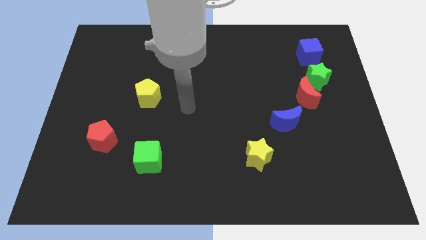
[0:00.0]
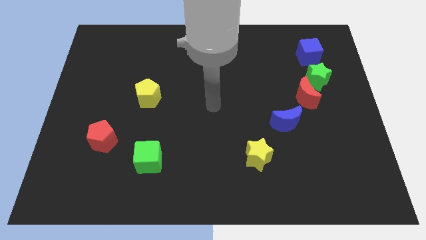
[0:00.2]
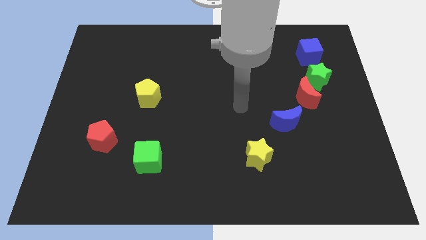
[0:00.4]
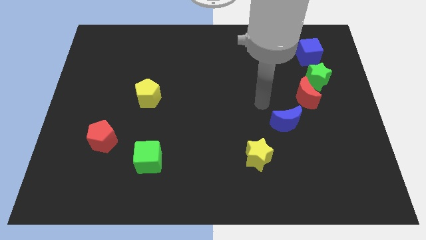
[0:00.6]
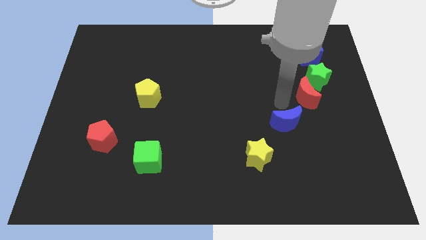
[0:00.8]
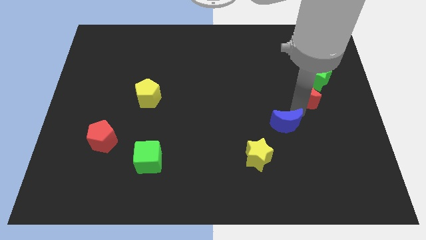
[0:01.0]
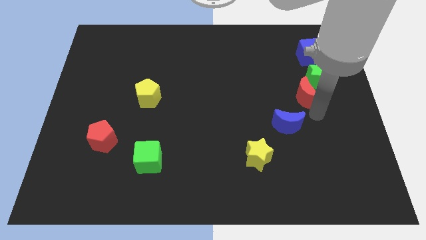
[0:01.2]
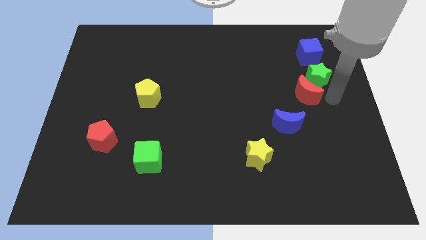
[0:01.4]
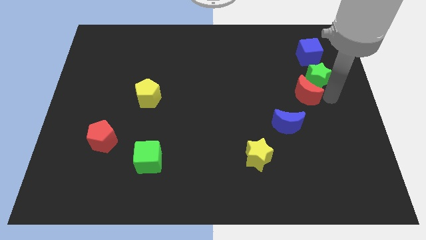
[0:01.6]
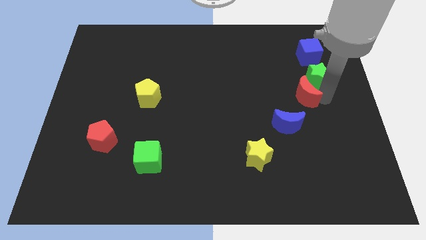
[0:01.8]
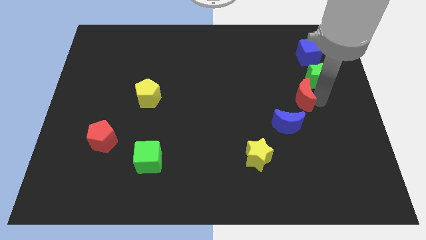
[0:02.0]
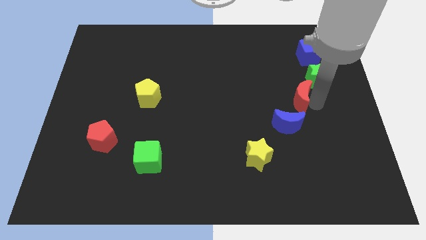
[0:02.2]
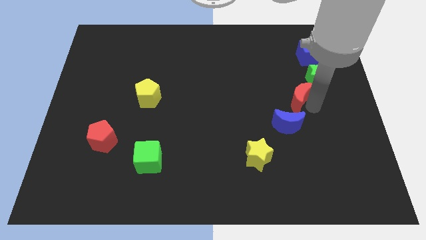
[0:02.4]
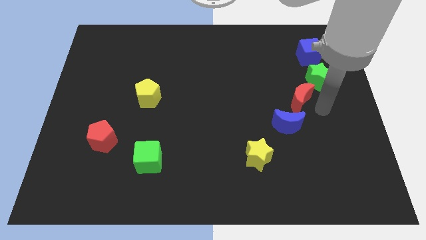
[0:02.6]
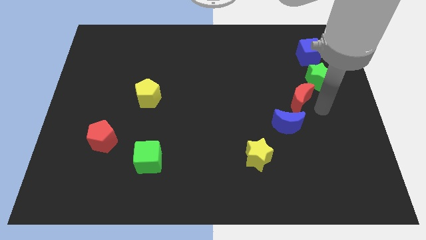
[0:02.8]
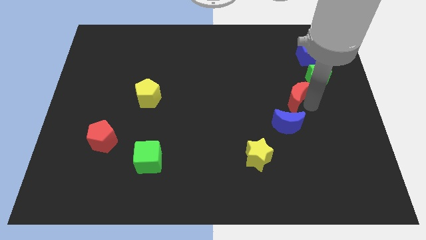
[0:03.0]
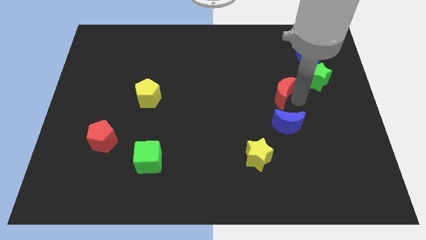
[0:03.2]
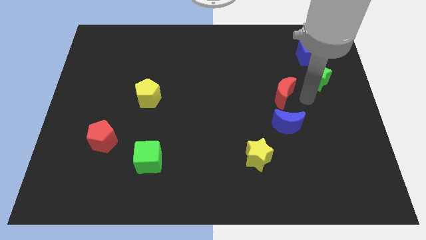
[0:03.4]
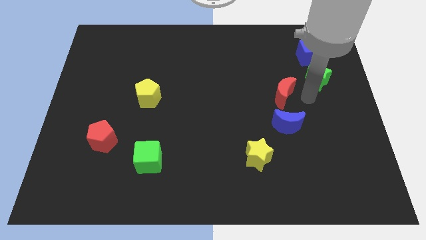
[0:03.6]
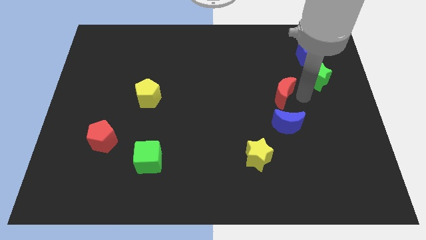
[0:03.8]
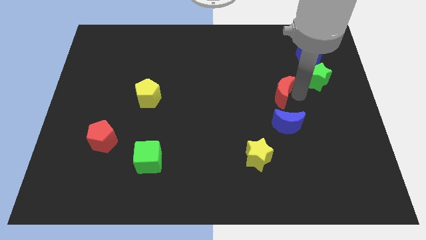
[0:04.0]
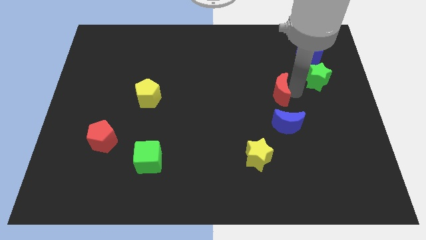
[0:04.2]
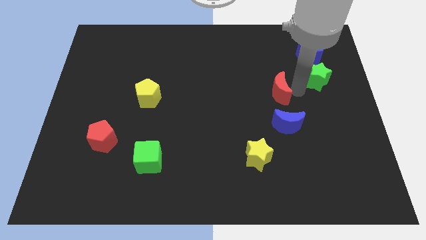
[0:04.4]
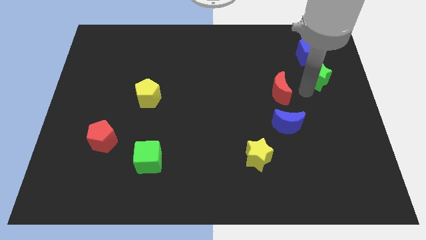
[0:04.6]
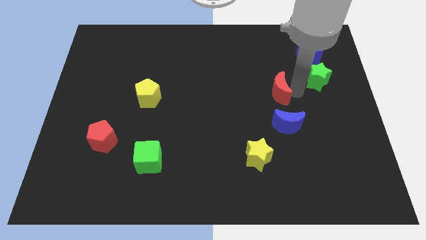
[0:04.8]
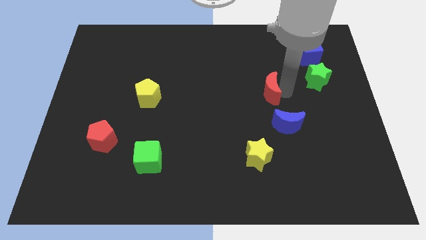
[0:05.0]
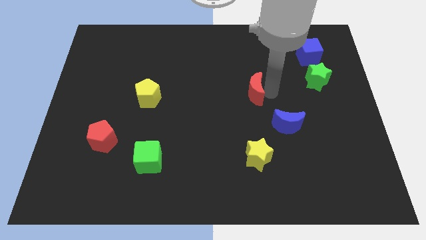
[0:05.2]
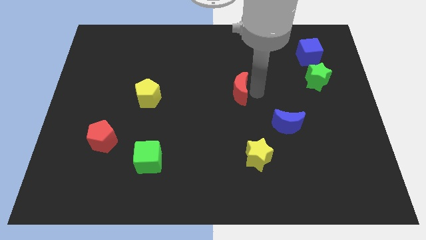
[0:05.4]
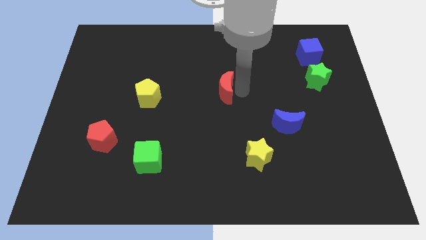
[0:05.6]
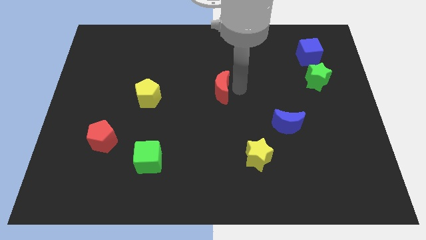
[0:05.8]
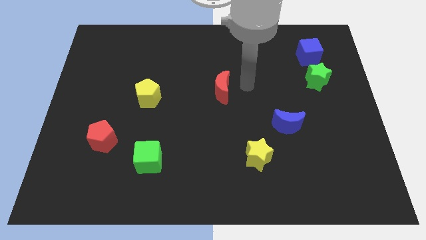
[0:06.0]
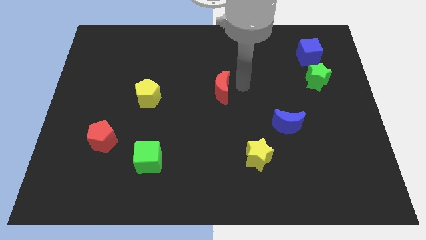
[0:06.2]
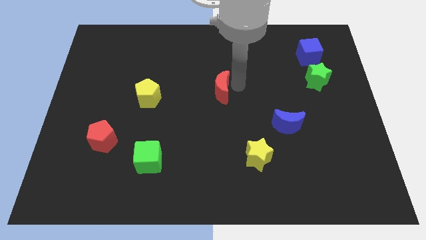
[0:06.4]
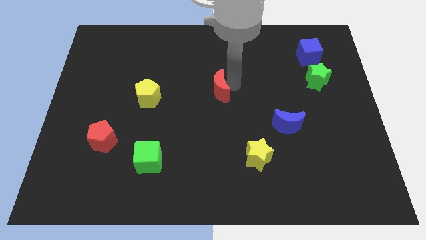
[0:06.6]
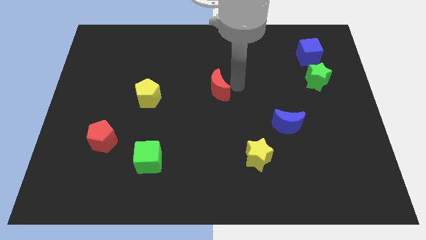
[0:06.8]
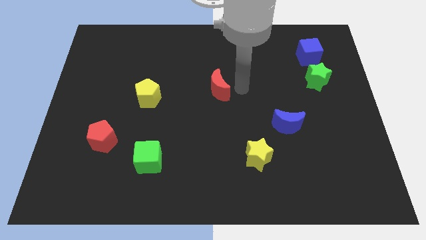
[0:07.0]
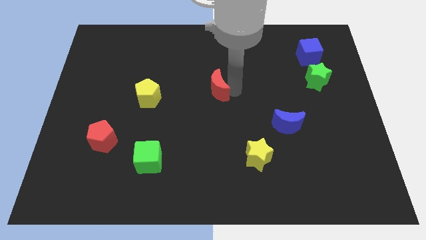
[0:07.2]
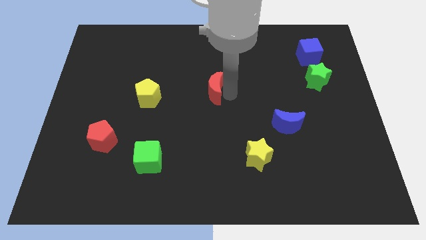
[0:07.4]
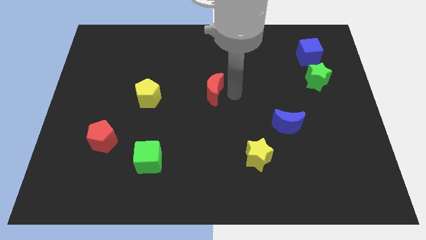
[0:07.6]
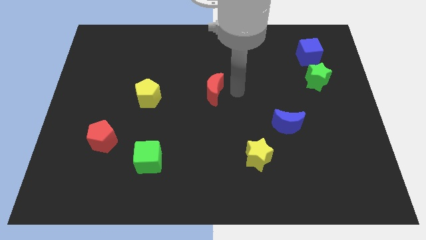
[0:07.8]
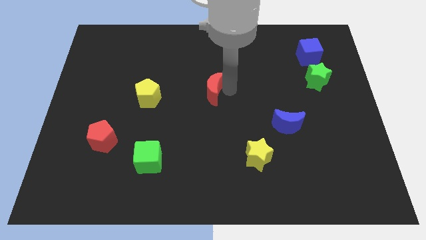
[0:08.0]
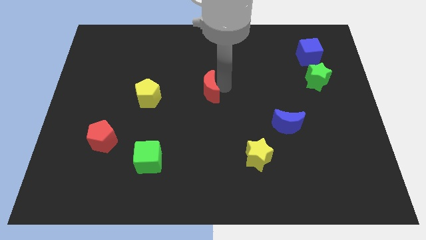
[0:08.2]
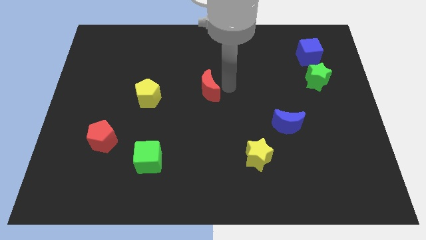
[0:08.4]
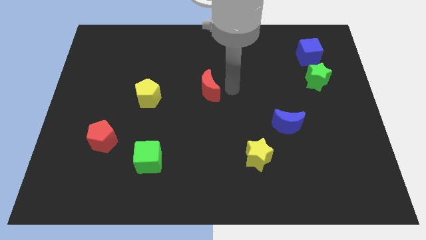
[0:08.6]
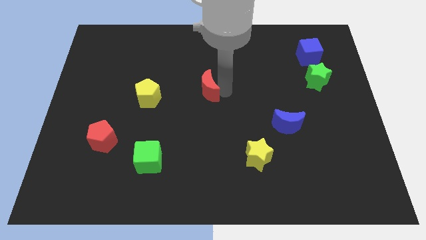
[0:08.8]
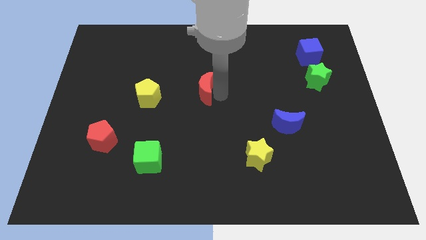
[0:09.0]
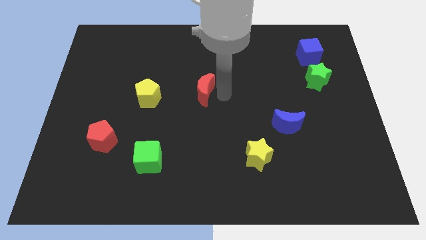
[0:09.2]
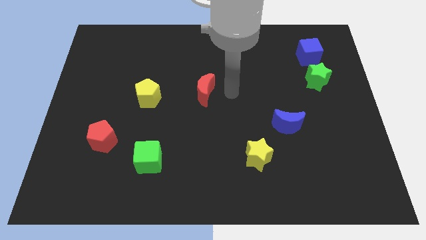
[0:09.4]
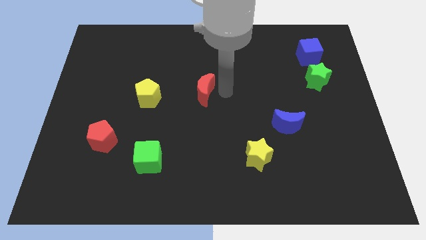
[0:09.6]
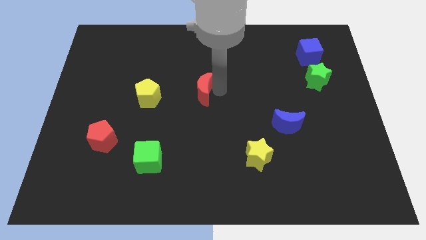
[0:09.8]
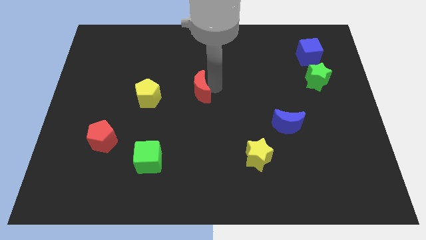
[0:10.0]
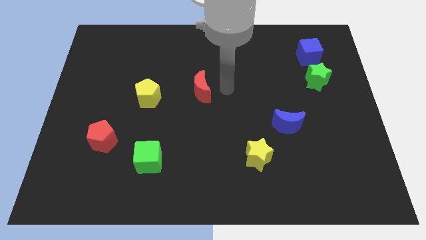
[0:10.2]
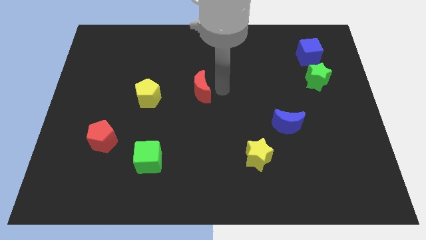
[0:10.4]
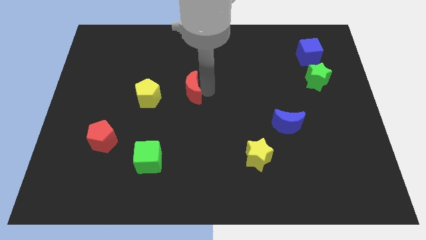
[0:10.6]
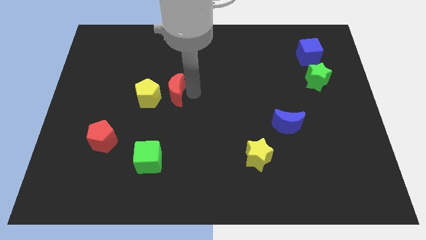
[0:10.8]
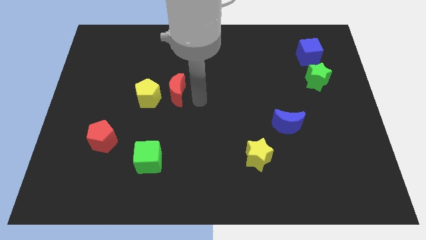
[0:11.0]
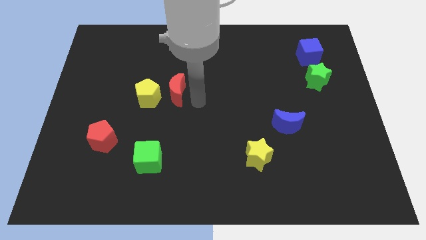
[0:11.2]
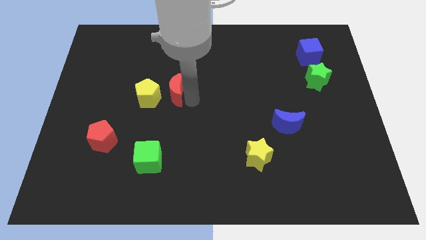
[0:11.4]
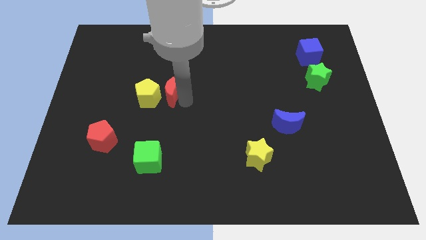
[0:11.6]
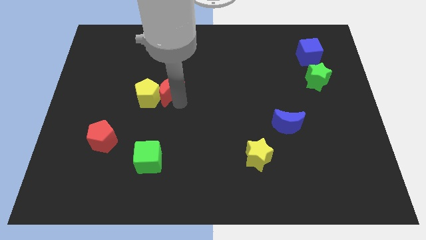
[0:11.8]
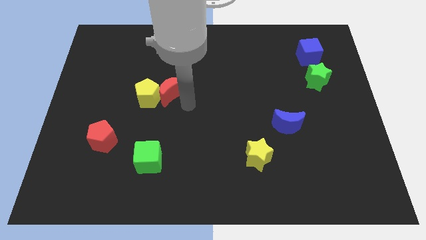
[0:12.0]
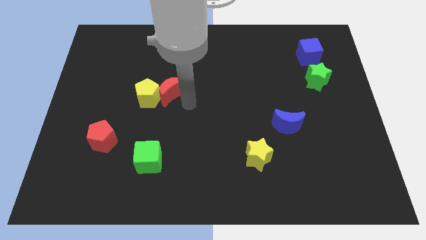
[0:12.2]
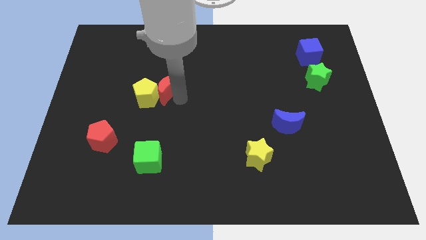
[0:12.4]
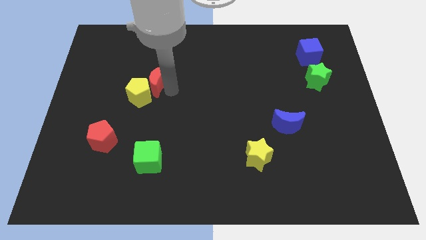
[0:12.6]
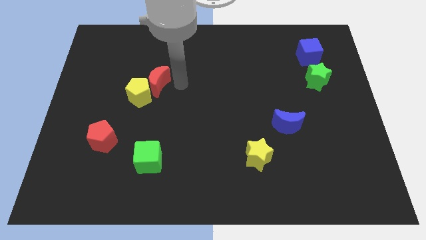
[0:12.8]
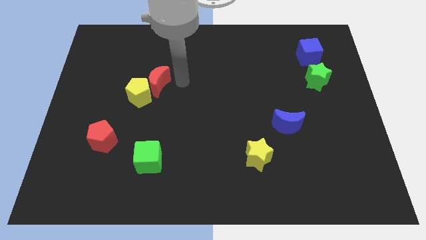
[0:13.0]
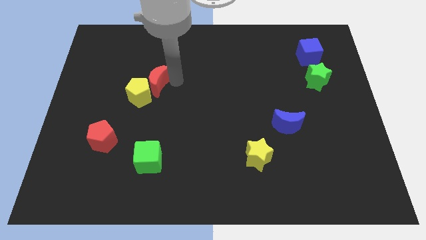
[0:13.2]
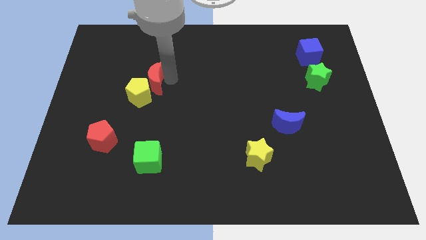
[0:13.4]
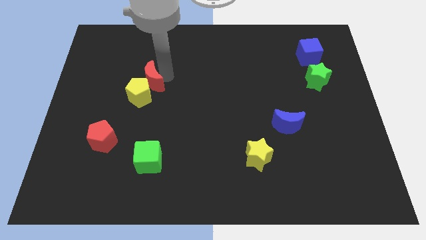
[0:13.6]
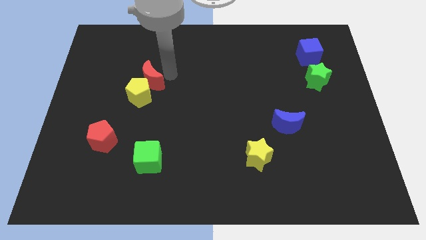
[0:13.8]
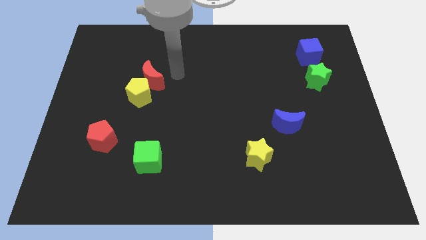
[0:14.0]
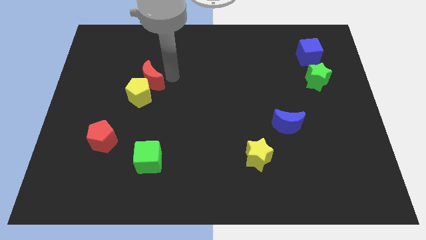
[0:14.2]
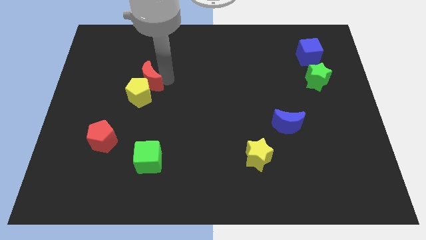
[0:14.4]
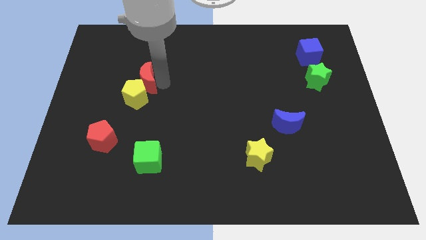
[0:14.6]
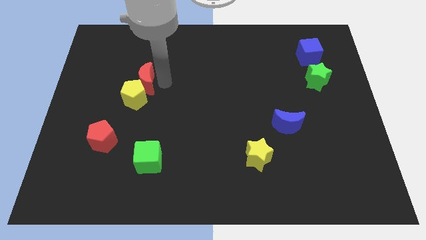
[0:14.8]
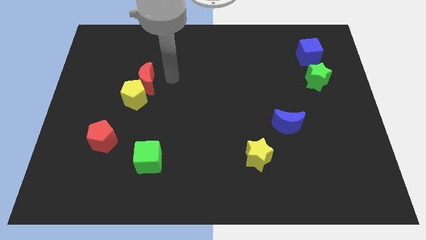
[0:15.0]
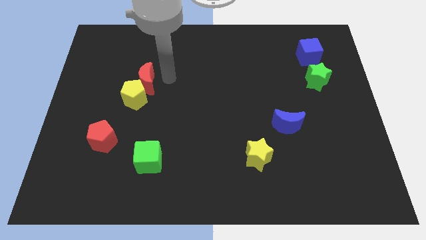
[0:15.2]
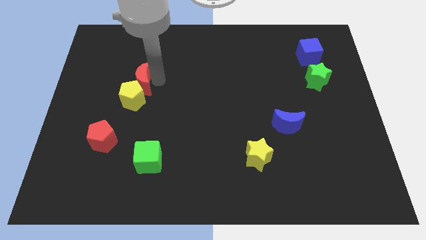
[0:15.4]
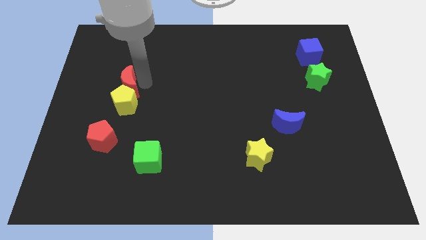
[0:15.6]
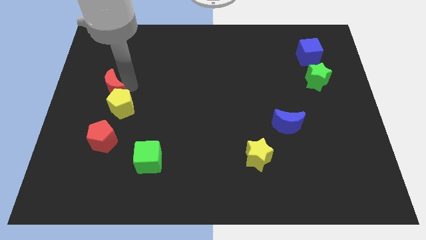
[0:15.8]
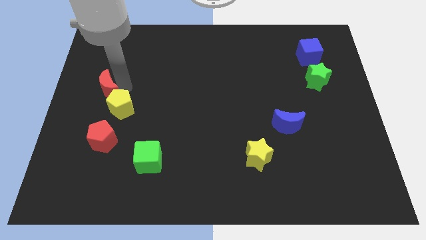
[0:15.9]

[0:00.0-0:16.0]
put the red moon to the left side of the board
